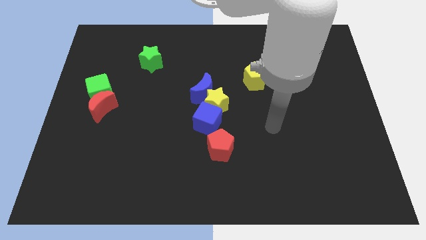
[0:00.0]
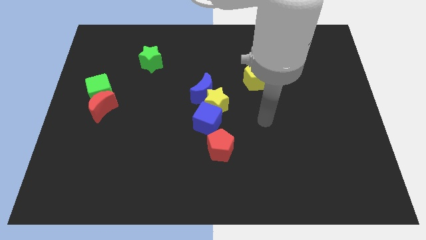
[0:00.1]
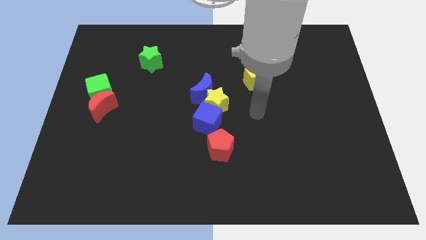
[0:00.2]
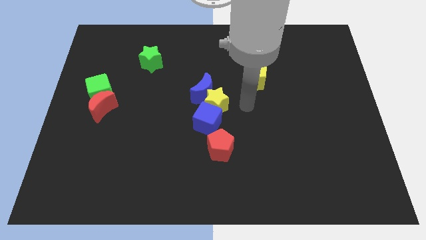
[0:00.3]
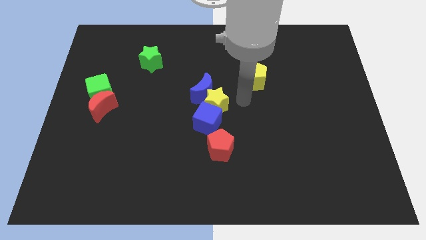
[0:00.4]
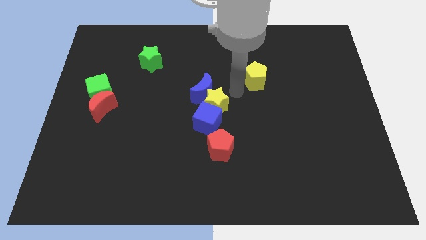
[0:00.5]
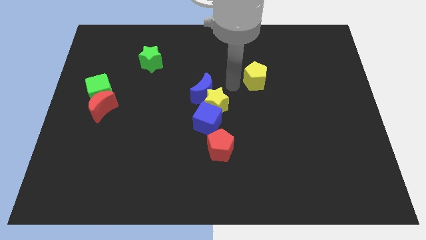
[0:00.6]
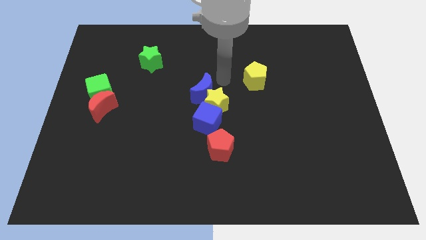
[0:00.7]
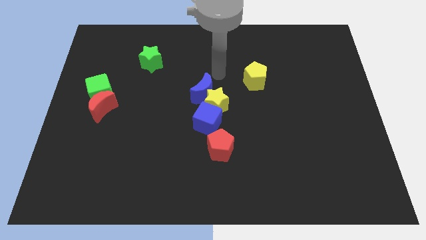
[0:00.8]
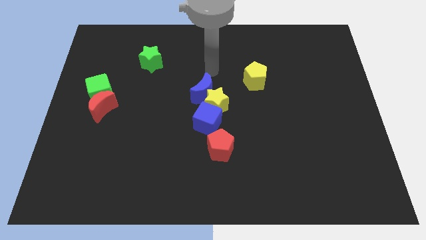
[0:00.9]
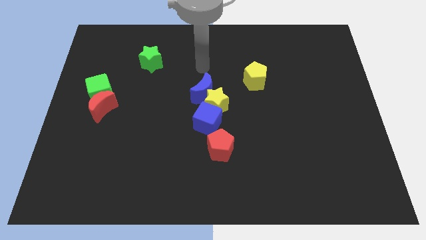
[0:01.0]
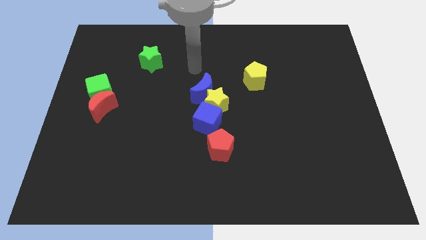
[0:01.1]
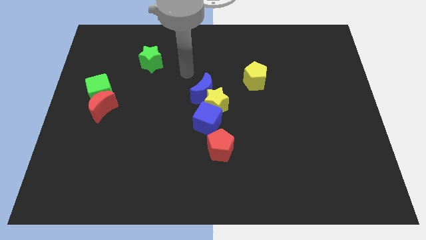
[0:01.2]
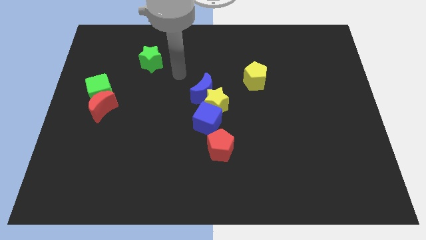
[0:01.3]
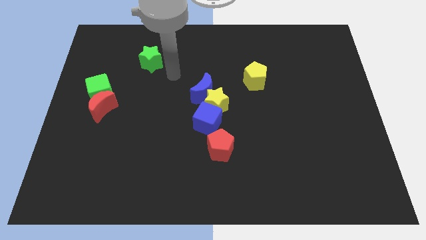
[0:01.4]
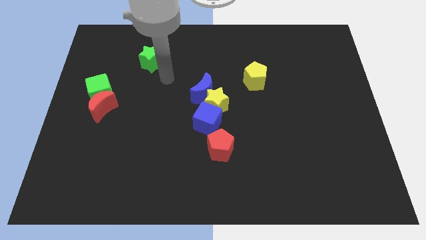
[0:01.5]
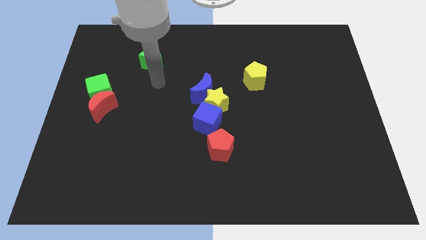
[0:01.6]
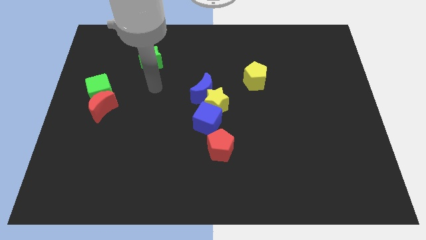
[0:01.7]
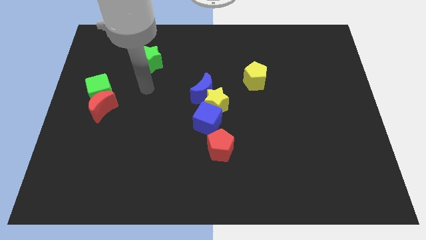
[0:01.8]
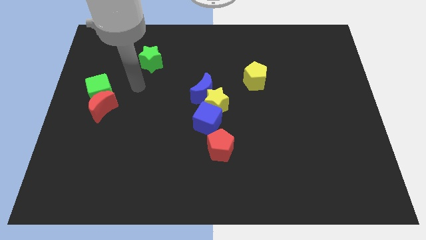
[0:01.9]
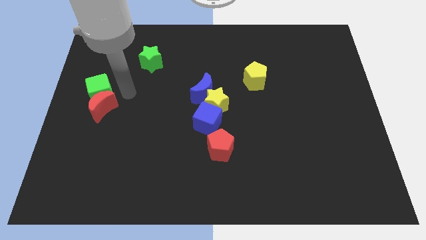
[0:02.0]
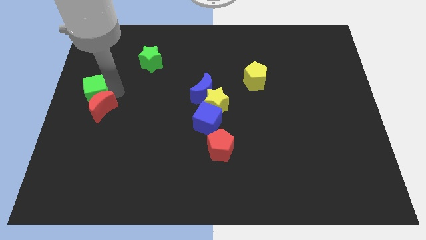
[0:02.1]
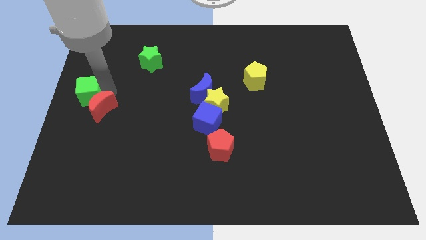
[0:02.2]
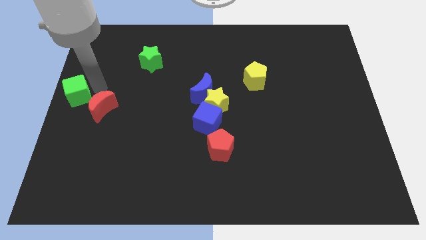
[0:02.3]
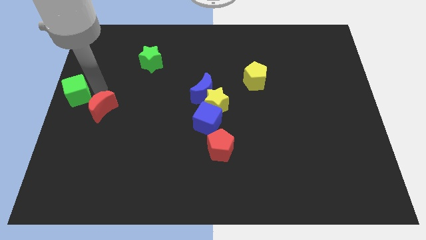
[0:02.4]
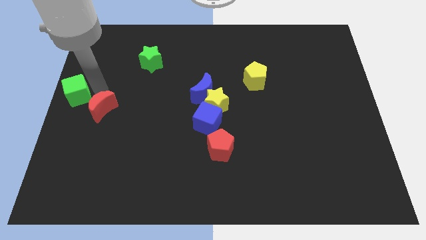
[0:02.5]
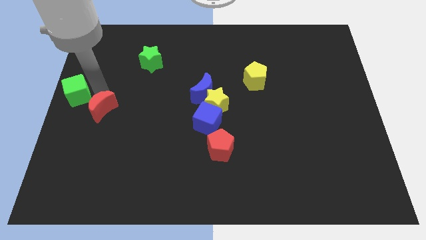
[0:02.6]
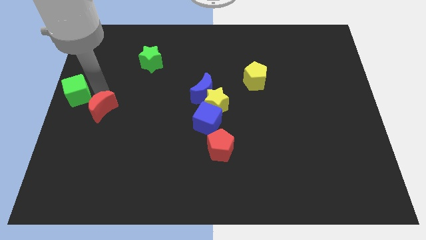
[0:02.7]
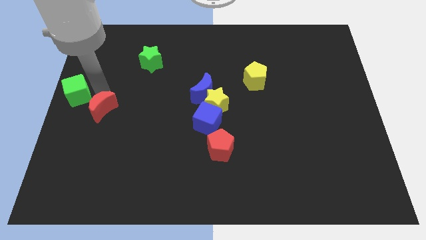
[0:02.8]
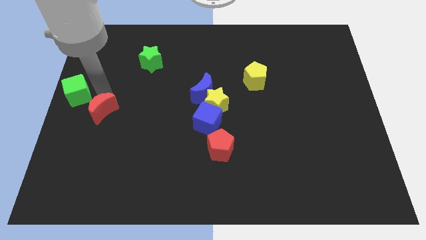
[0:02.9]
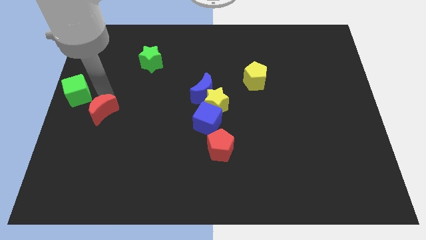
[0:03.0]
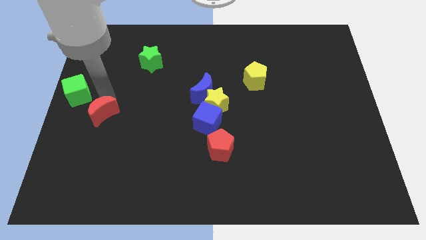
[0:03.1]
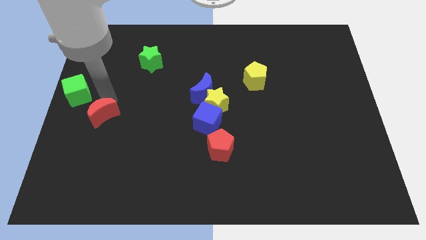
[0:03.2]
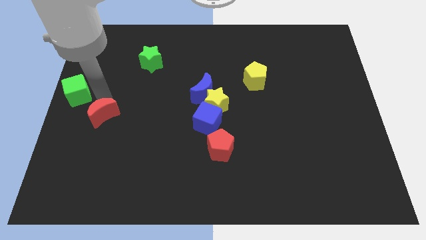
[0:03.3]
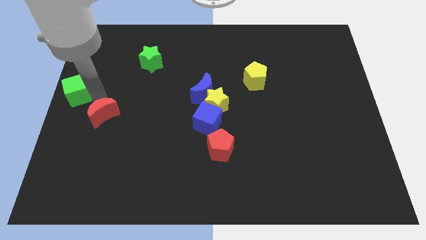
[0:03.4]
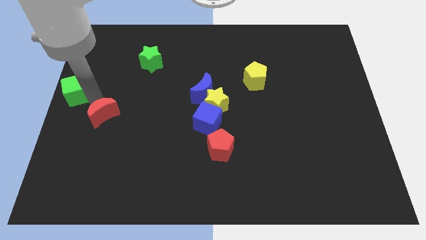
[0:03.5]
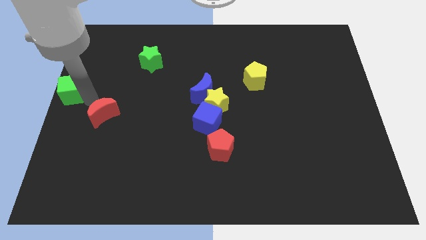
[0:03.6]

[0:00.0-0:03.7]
pull the red moon apart from the green cube

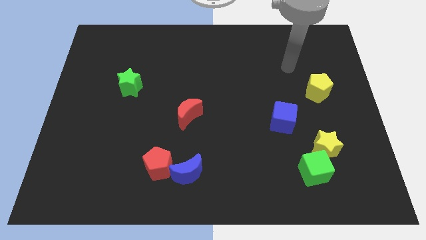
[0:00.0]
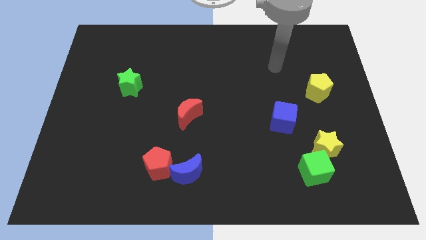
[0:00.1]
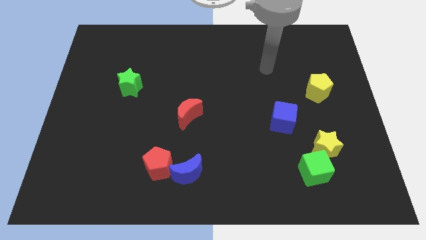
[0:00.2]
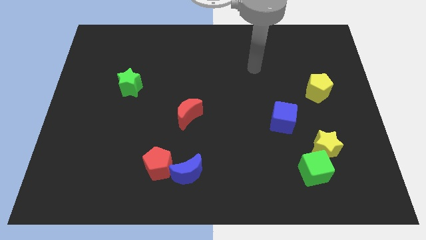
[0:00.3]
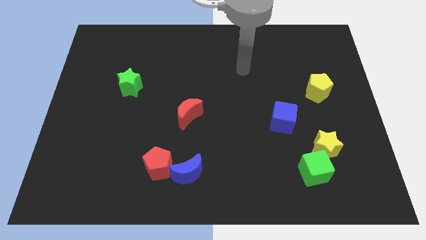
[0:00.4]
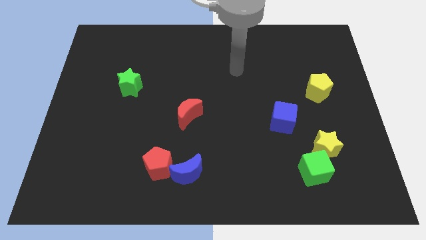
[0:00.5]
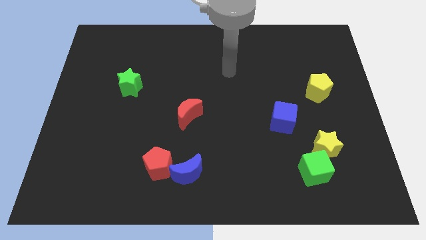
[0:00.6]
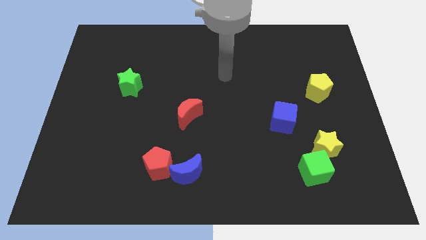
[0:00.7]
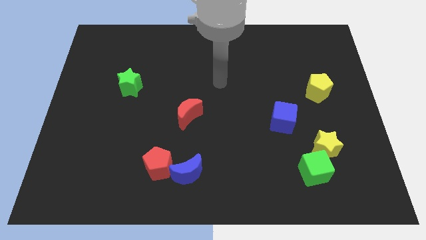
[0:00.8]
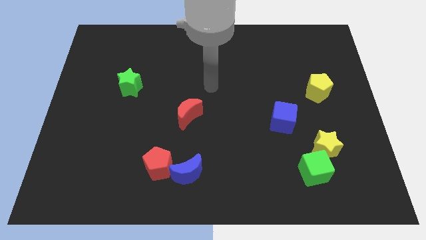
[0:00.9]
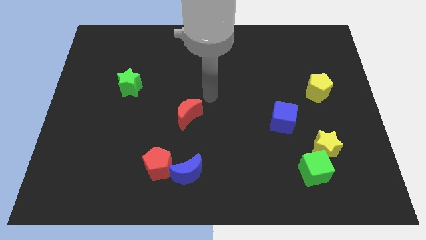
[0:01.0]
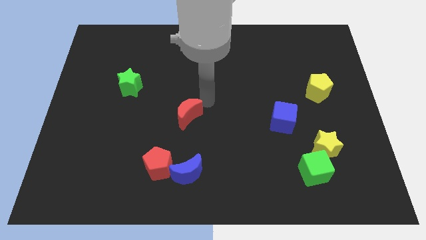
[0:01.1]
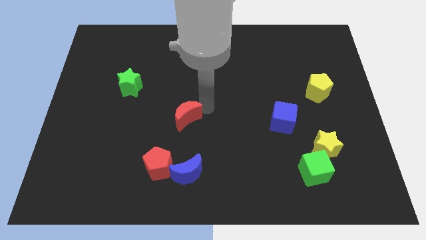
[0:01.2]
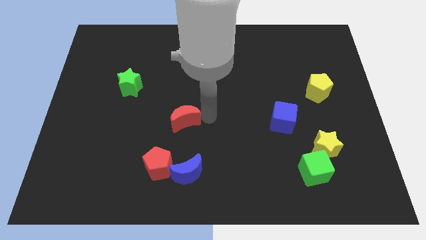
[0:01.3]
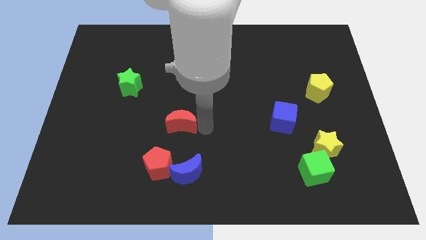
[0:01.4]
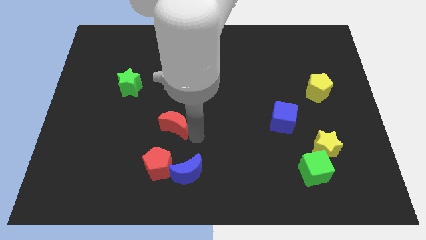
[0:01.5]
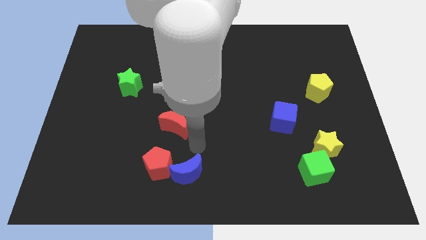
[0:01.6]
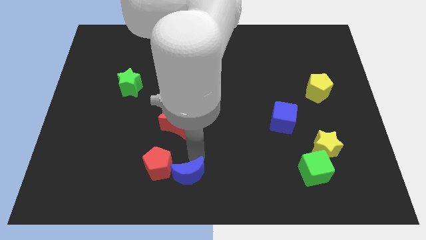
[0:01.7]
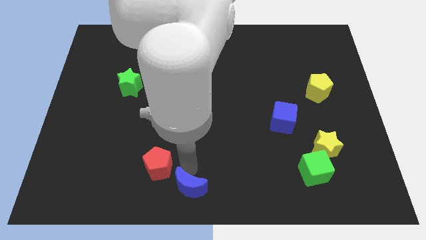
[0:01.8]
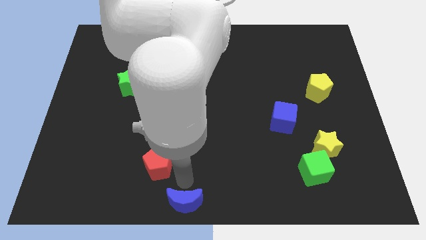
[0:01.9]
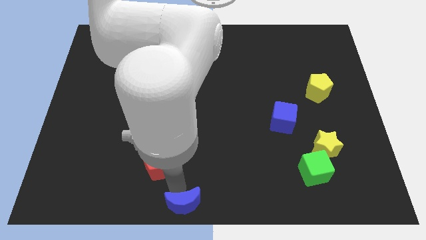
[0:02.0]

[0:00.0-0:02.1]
separate the red pentagon from the blue moon

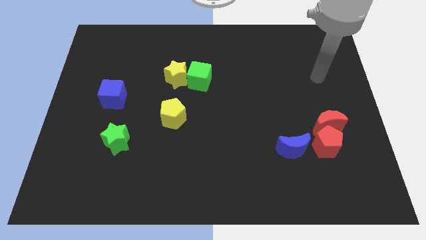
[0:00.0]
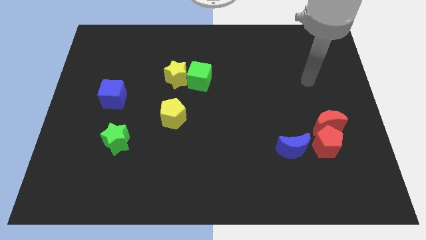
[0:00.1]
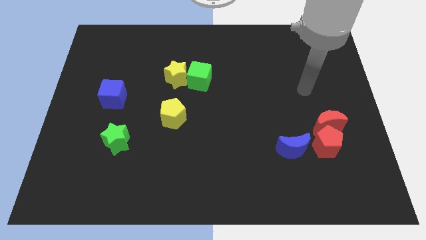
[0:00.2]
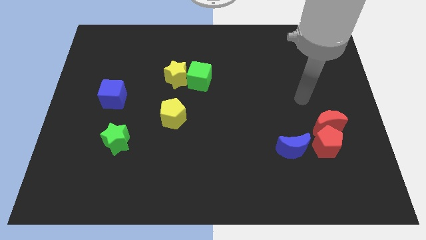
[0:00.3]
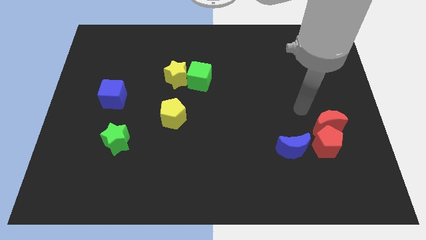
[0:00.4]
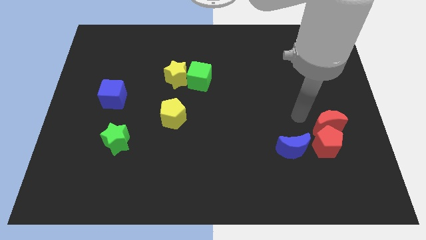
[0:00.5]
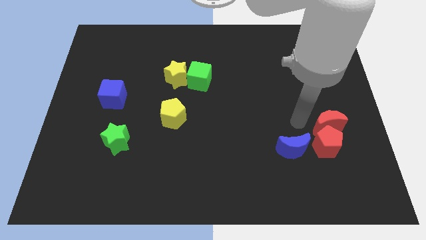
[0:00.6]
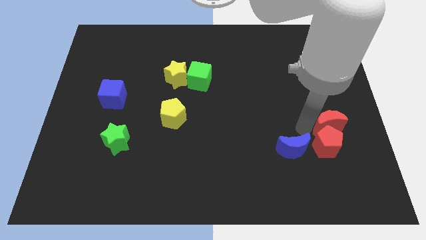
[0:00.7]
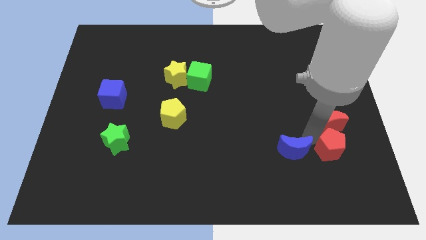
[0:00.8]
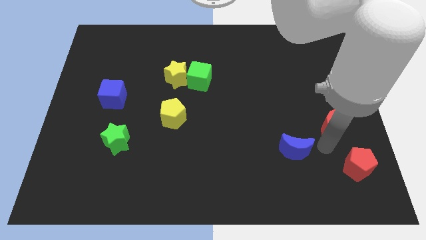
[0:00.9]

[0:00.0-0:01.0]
move the red moon away from the red pentagon

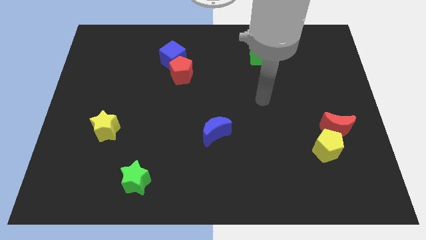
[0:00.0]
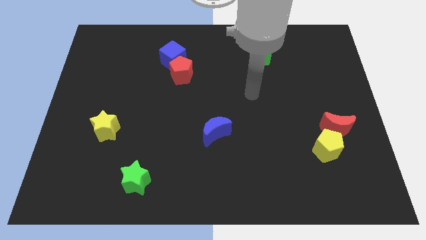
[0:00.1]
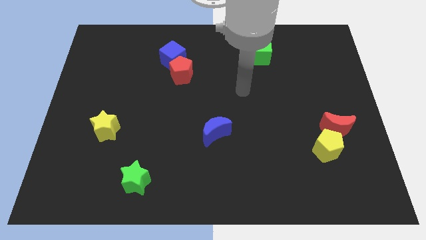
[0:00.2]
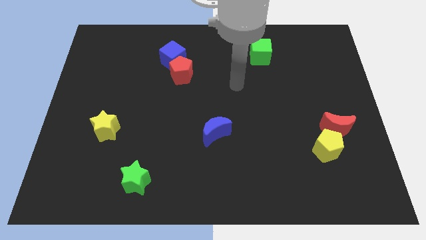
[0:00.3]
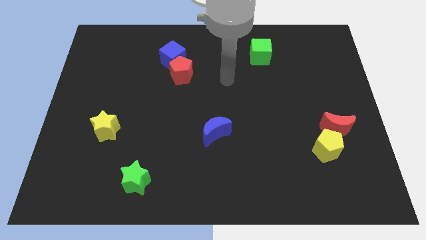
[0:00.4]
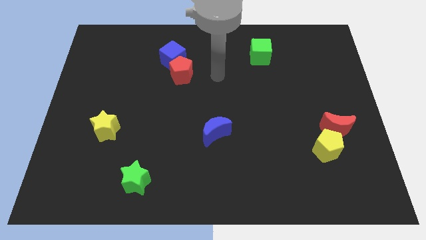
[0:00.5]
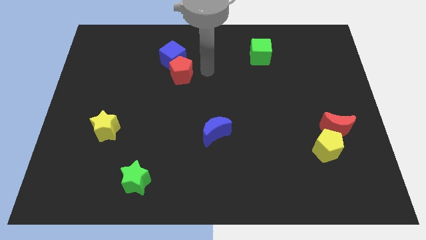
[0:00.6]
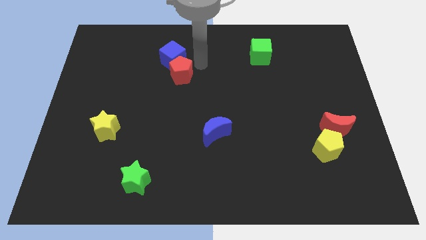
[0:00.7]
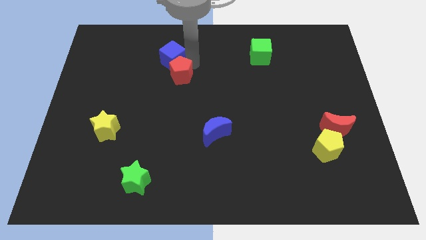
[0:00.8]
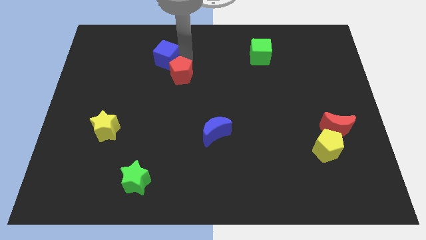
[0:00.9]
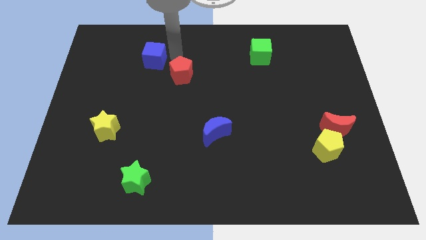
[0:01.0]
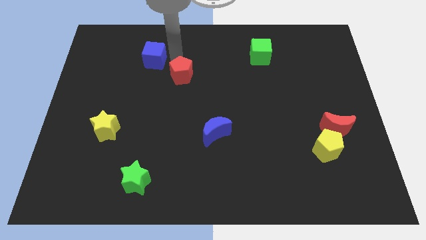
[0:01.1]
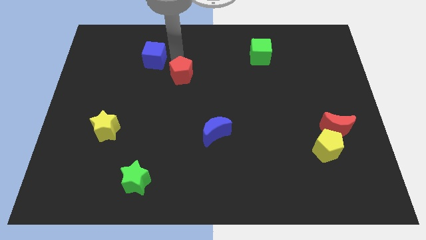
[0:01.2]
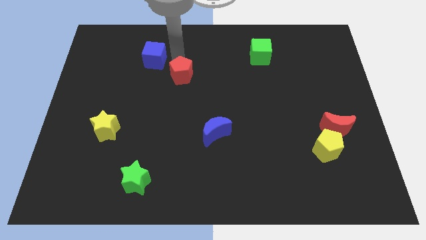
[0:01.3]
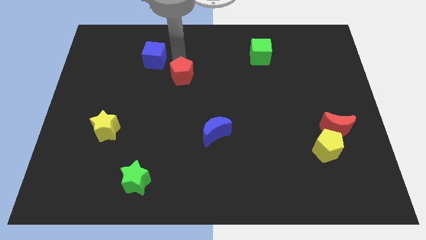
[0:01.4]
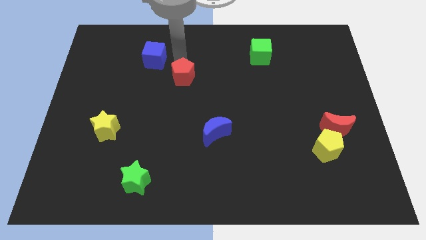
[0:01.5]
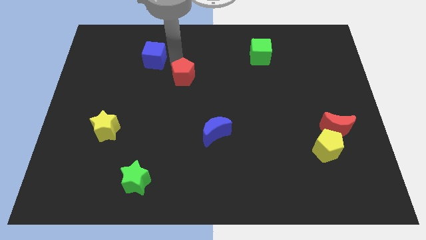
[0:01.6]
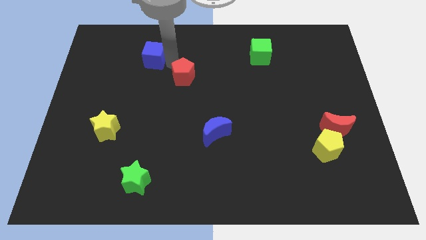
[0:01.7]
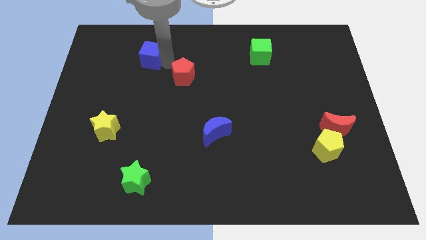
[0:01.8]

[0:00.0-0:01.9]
move the red pentagon away from the blue cube

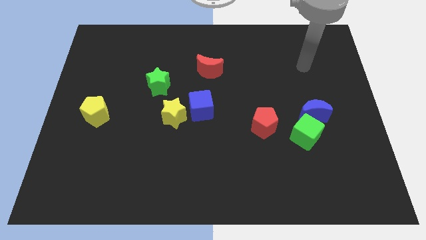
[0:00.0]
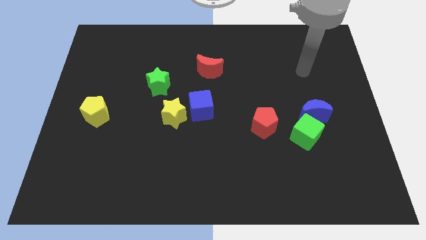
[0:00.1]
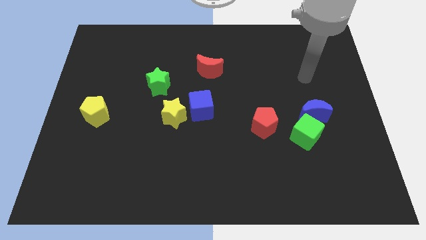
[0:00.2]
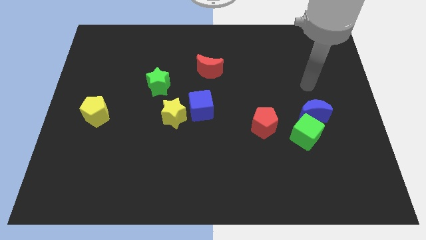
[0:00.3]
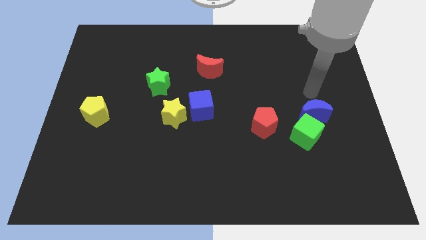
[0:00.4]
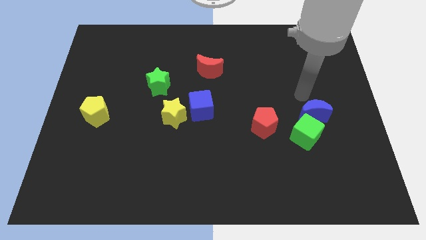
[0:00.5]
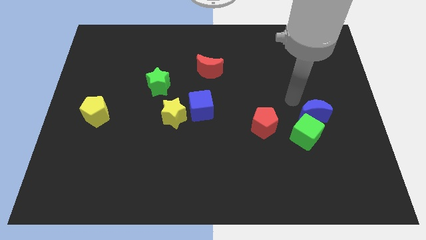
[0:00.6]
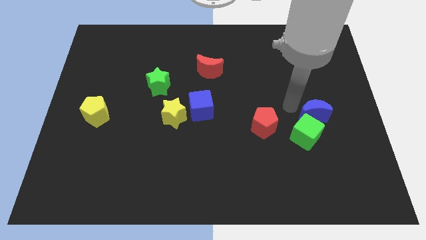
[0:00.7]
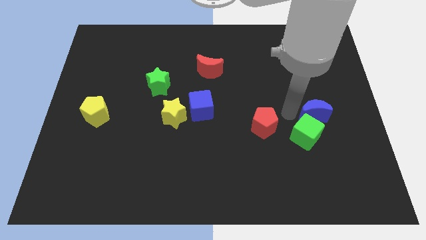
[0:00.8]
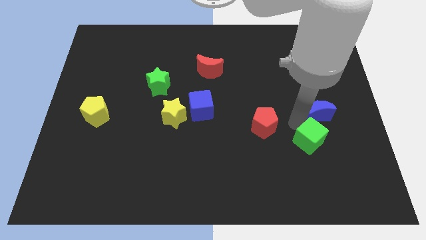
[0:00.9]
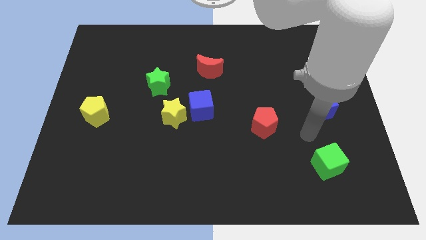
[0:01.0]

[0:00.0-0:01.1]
move the blue moon away from the green cube
